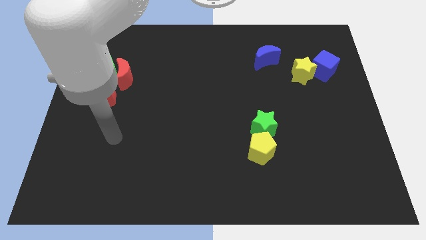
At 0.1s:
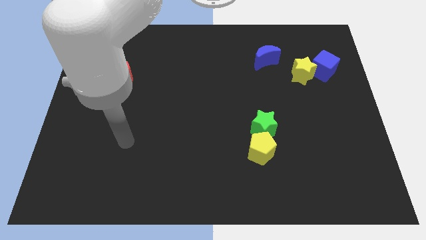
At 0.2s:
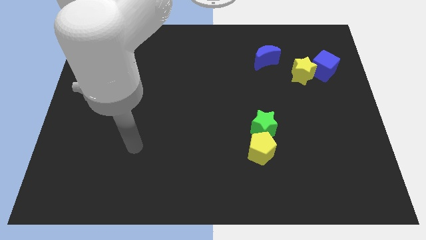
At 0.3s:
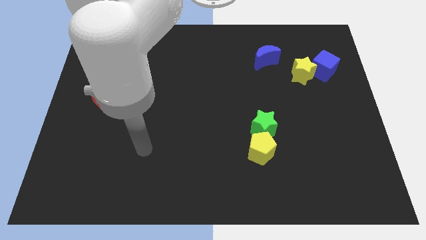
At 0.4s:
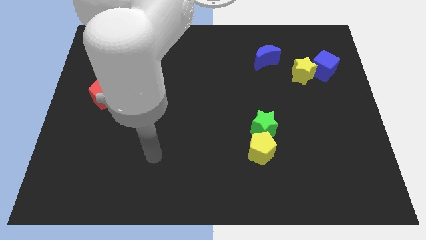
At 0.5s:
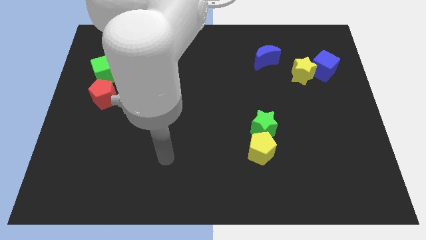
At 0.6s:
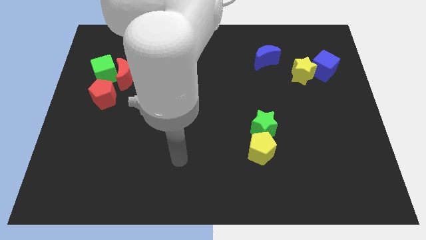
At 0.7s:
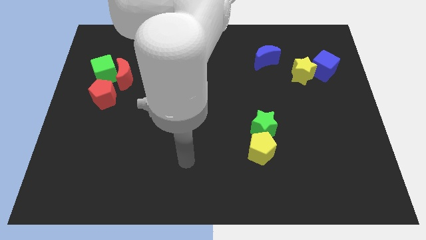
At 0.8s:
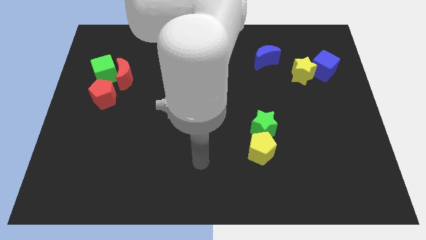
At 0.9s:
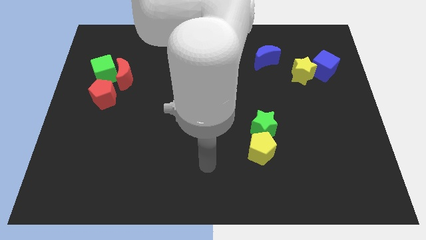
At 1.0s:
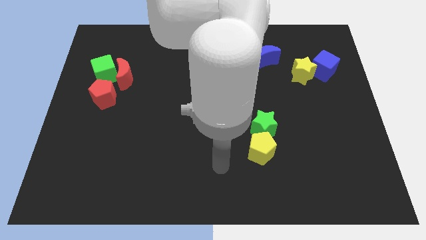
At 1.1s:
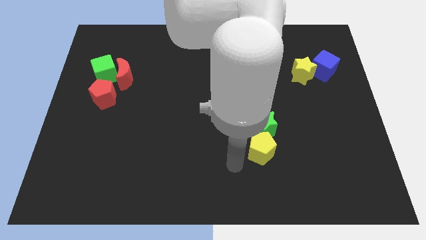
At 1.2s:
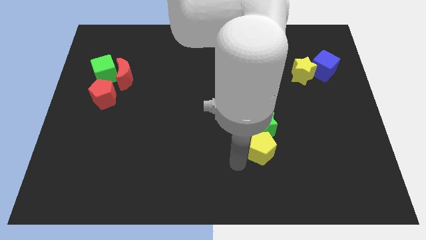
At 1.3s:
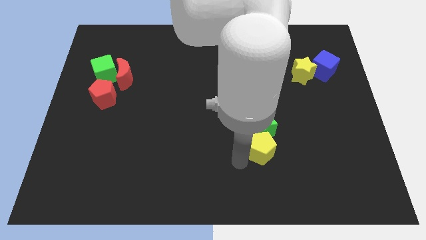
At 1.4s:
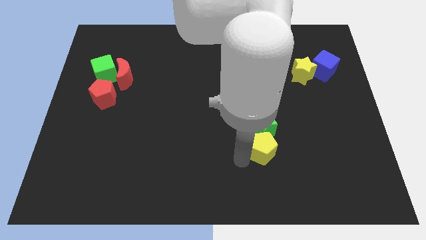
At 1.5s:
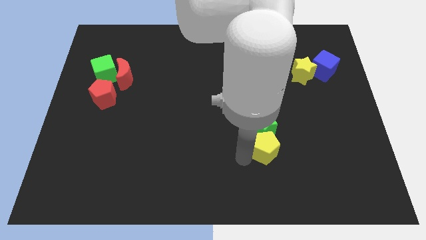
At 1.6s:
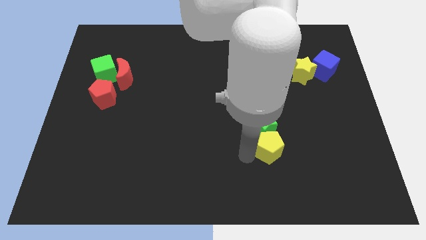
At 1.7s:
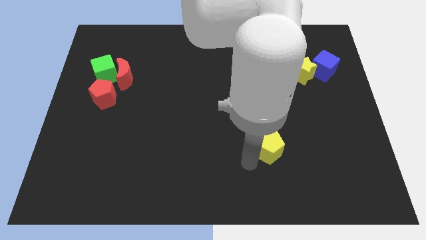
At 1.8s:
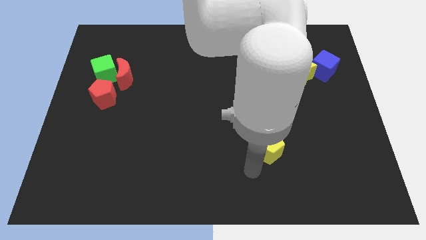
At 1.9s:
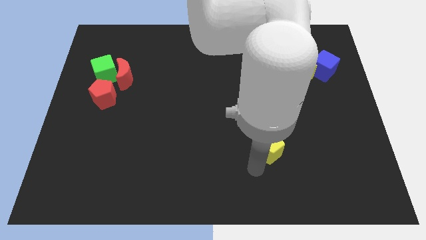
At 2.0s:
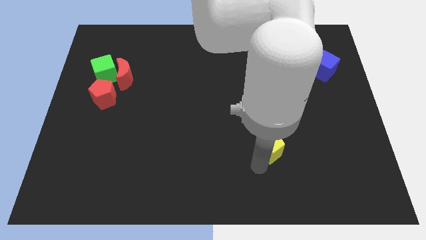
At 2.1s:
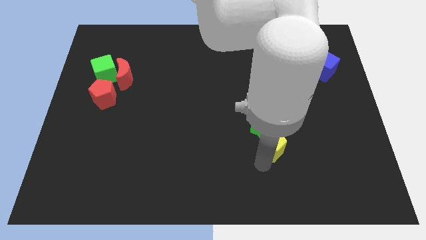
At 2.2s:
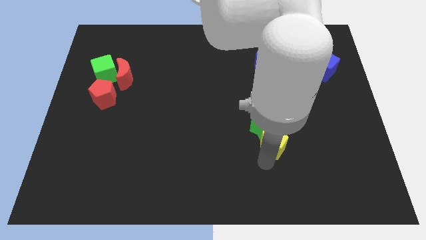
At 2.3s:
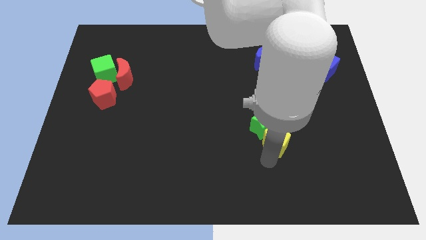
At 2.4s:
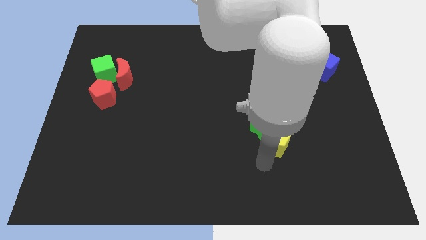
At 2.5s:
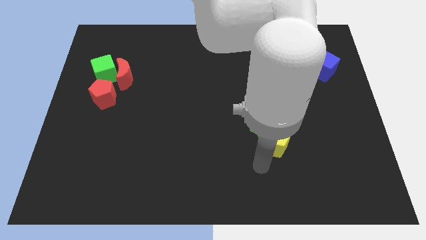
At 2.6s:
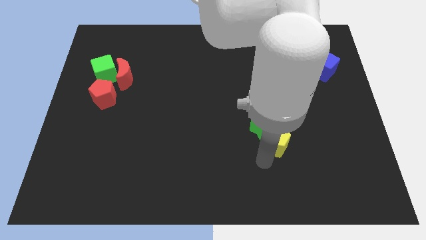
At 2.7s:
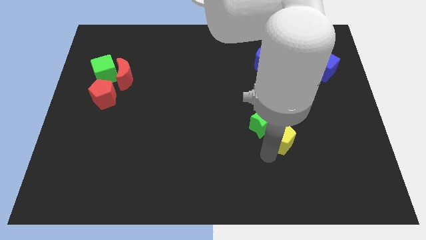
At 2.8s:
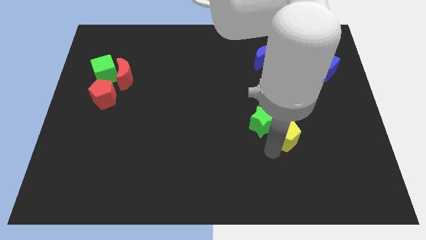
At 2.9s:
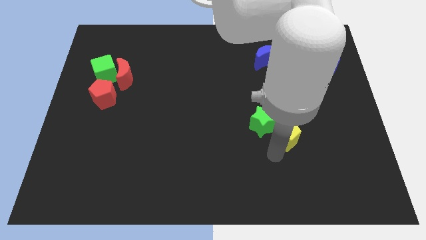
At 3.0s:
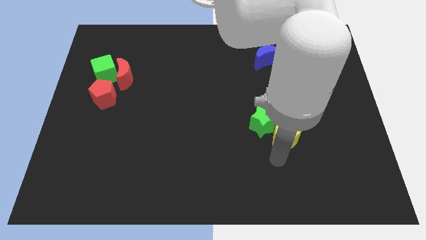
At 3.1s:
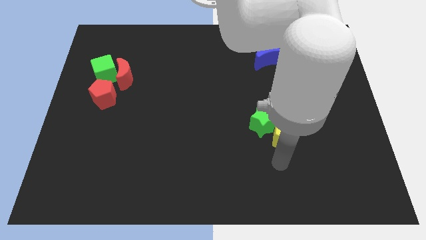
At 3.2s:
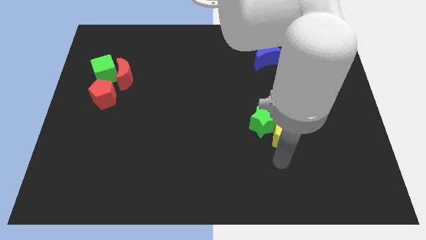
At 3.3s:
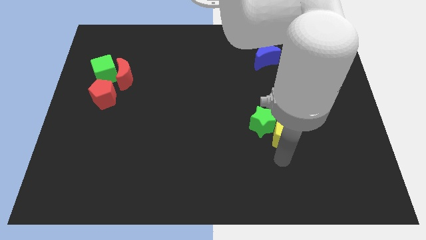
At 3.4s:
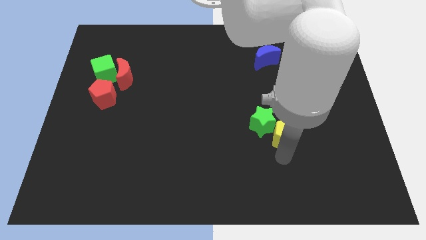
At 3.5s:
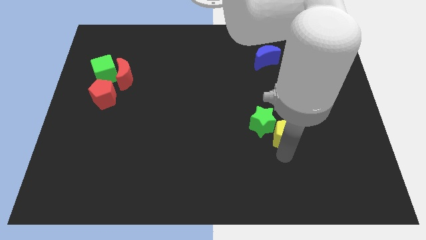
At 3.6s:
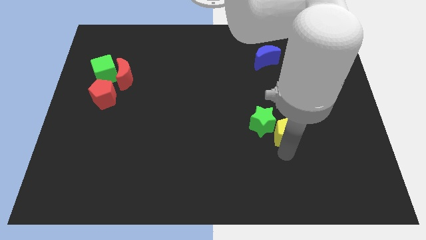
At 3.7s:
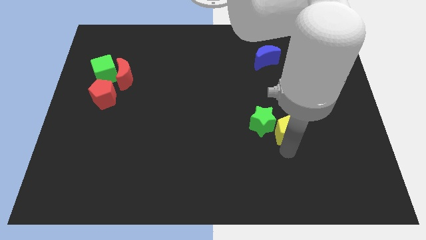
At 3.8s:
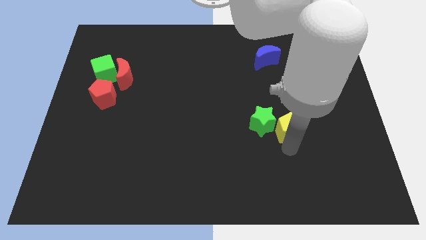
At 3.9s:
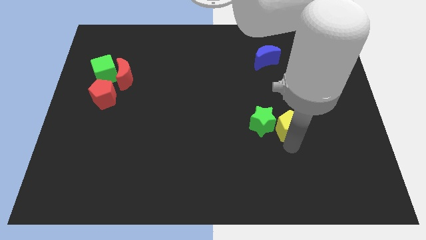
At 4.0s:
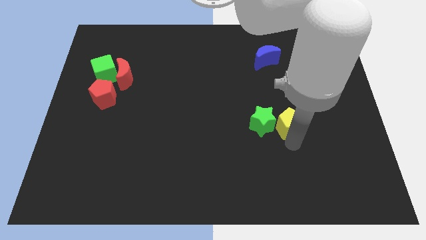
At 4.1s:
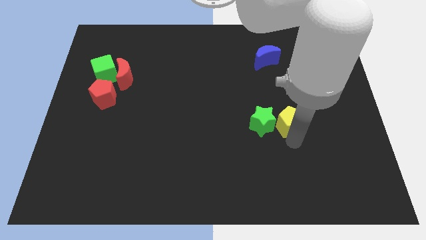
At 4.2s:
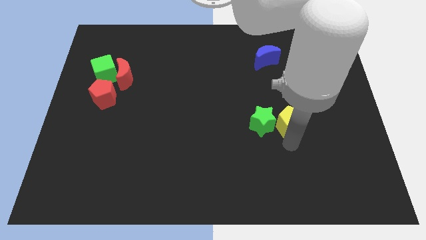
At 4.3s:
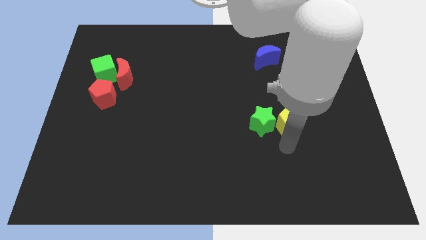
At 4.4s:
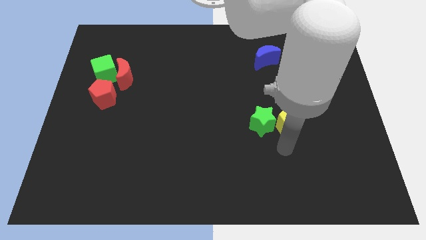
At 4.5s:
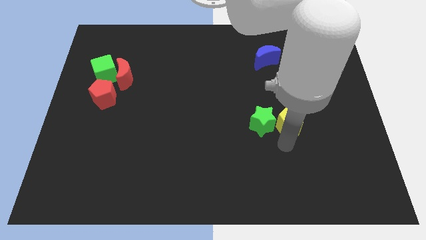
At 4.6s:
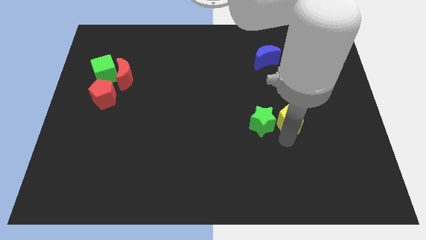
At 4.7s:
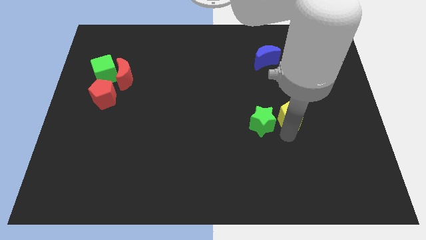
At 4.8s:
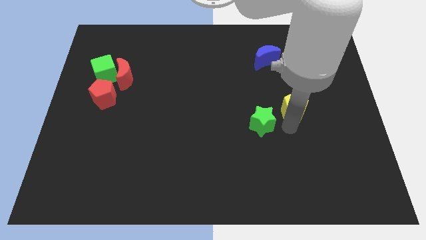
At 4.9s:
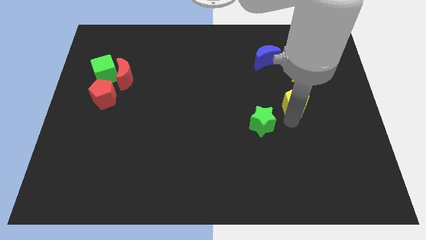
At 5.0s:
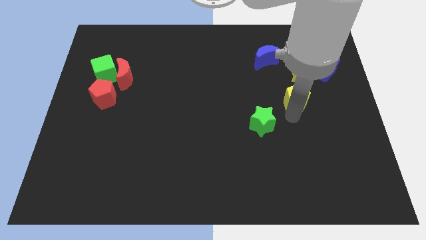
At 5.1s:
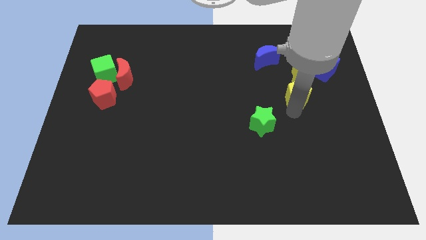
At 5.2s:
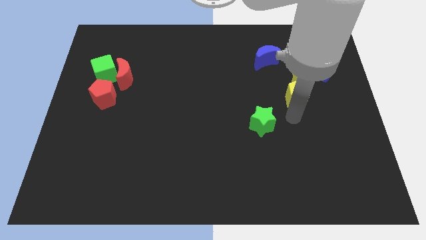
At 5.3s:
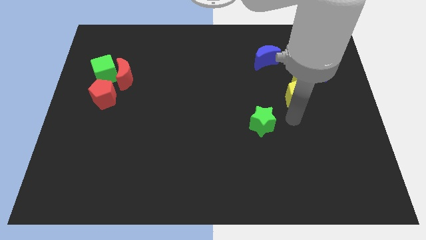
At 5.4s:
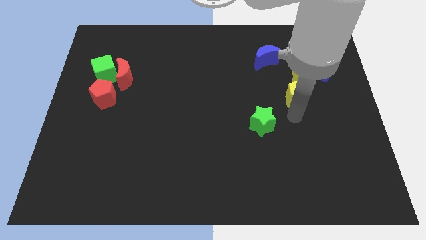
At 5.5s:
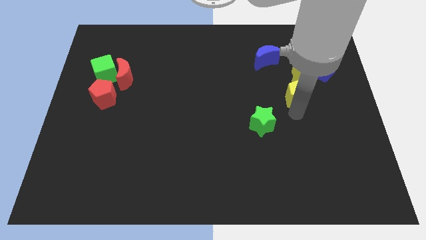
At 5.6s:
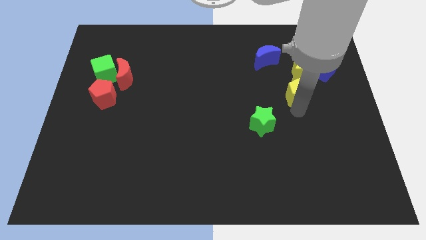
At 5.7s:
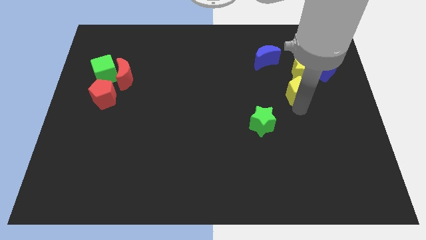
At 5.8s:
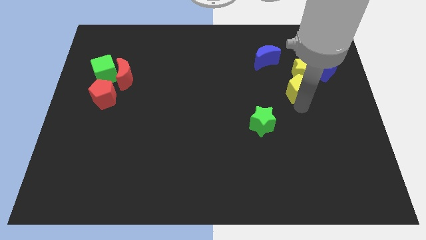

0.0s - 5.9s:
push the yellow pentagon close to the yellow star

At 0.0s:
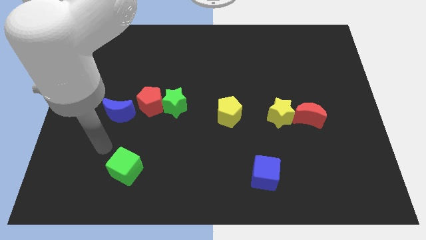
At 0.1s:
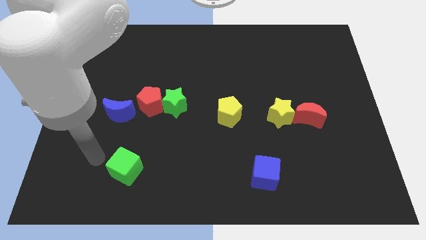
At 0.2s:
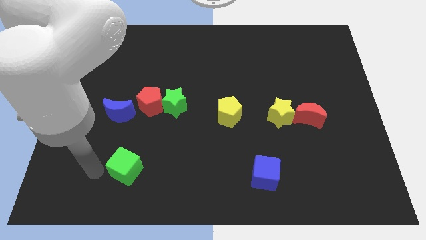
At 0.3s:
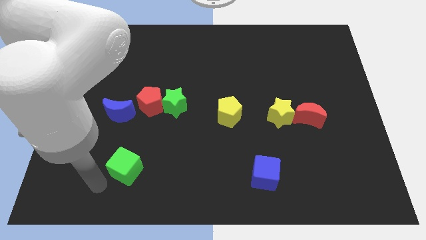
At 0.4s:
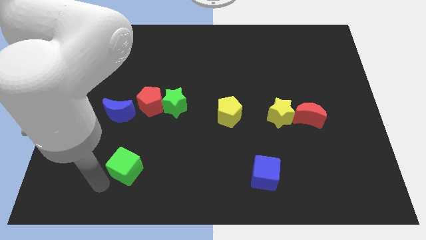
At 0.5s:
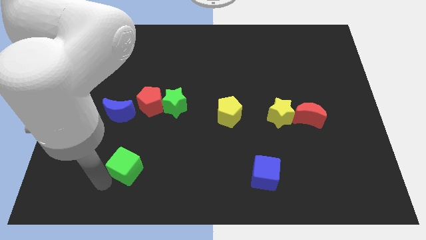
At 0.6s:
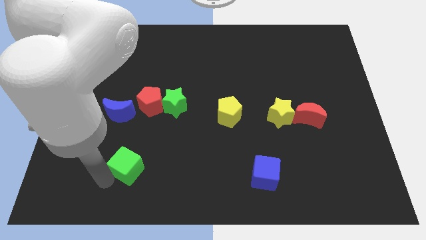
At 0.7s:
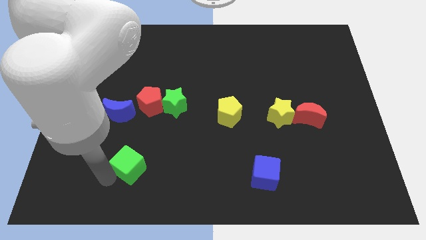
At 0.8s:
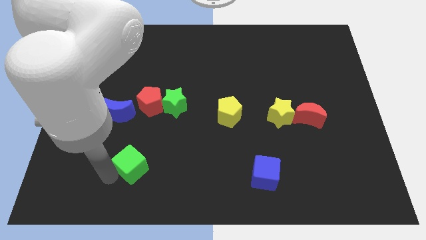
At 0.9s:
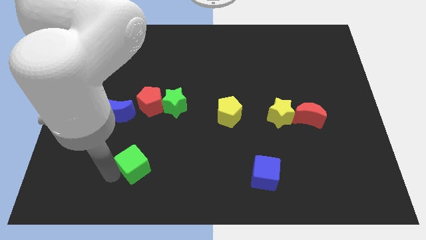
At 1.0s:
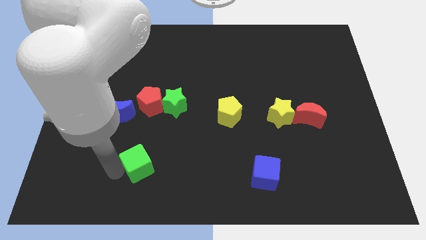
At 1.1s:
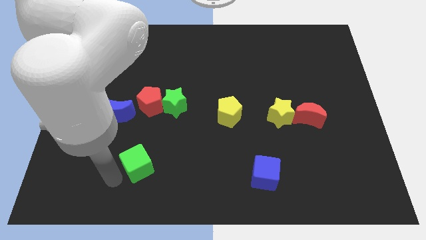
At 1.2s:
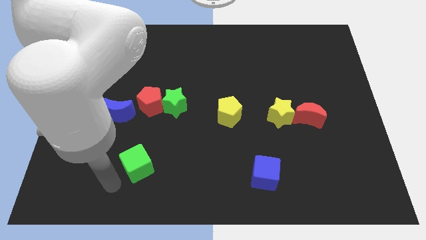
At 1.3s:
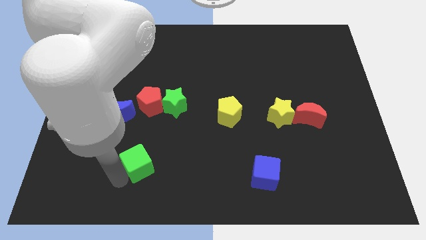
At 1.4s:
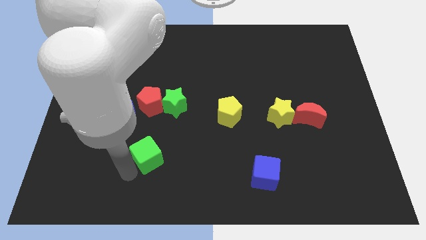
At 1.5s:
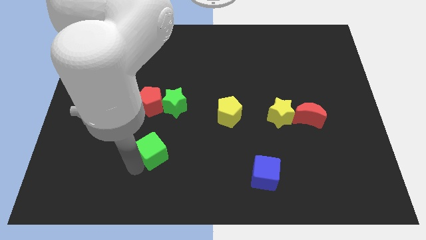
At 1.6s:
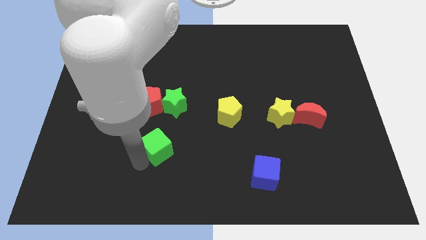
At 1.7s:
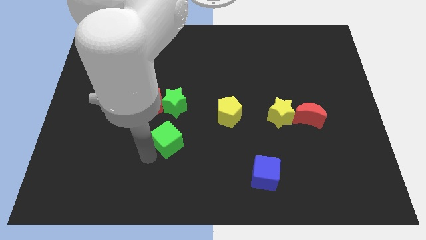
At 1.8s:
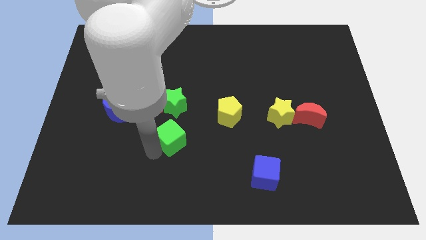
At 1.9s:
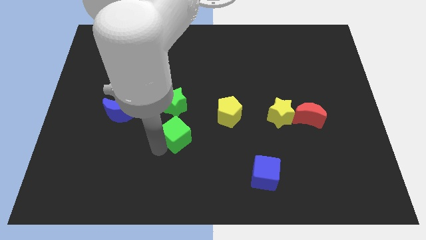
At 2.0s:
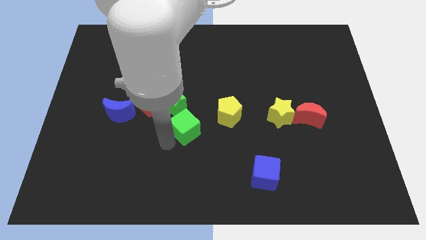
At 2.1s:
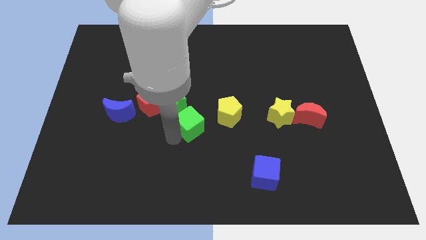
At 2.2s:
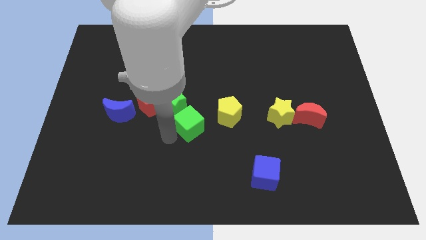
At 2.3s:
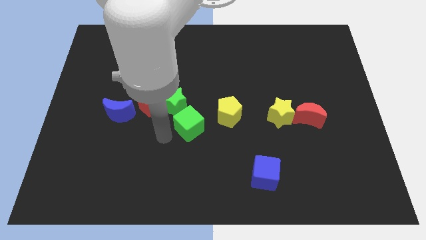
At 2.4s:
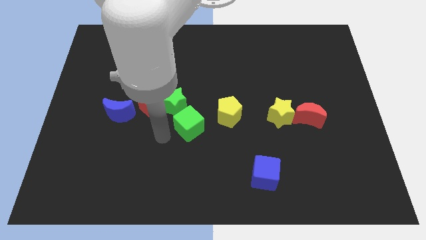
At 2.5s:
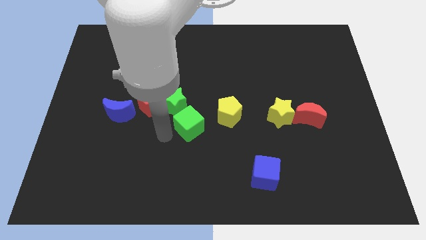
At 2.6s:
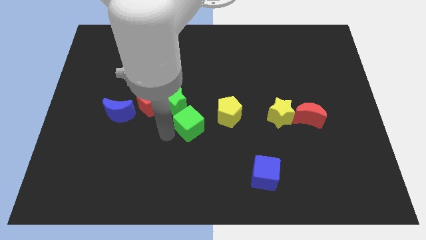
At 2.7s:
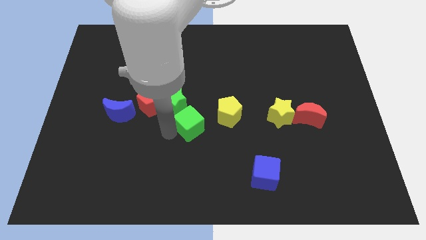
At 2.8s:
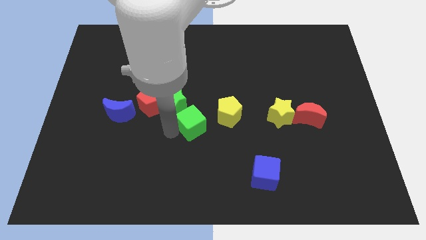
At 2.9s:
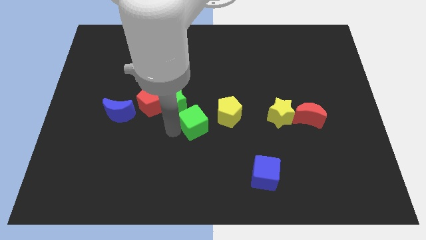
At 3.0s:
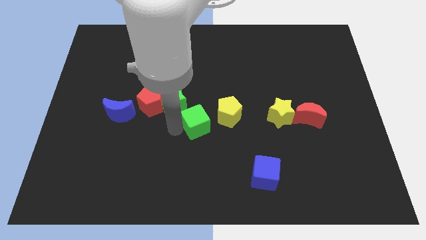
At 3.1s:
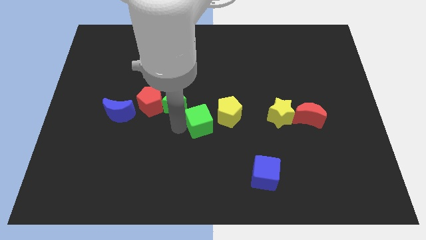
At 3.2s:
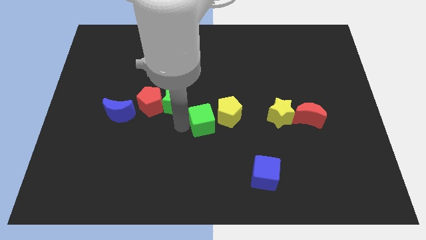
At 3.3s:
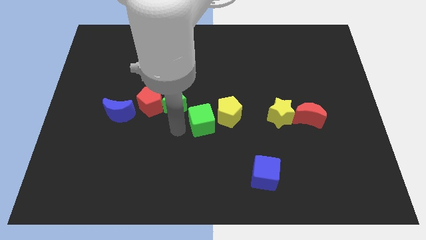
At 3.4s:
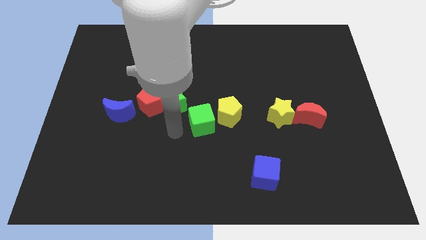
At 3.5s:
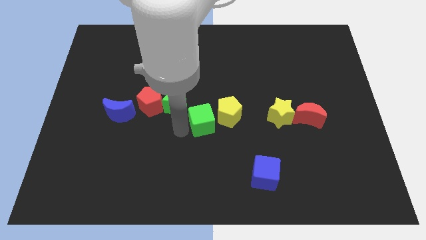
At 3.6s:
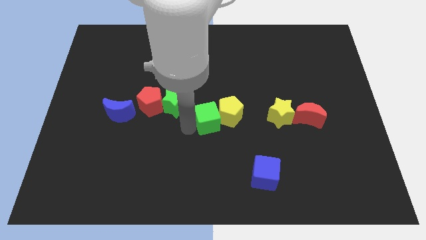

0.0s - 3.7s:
slide the green cube next to the yellow pentagon
